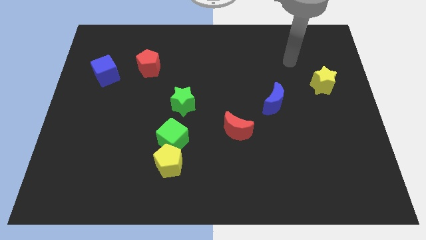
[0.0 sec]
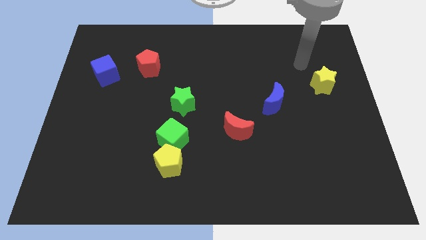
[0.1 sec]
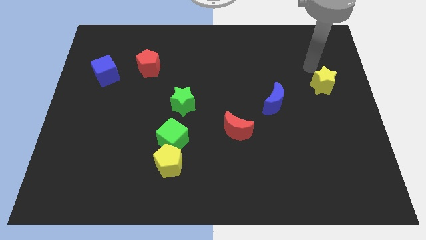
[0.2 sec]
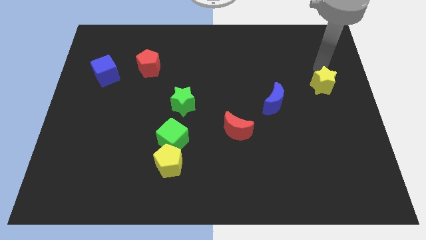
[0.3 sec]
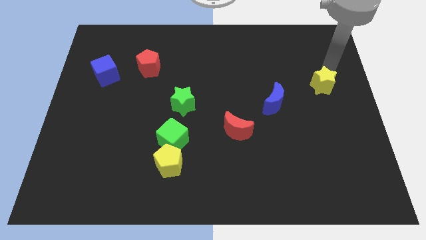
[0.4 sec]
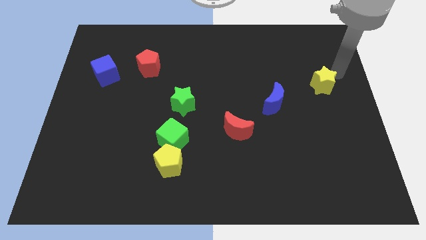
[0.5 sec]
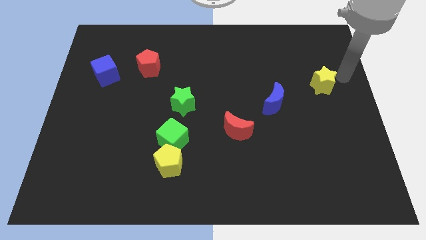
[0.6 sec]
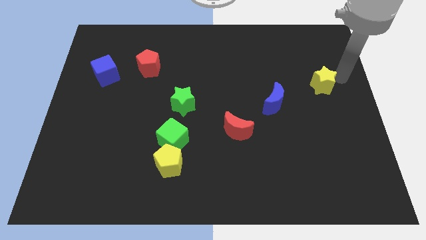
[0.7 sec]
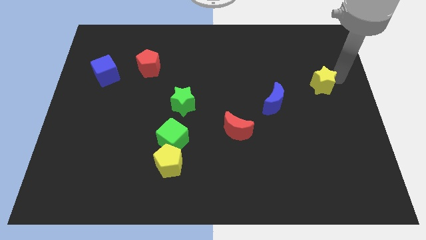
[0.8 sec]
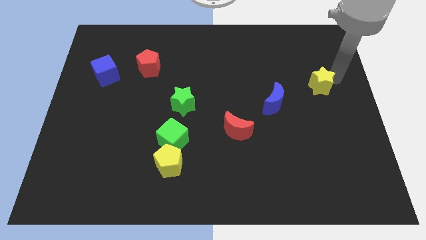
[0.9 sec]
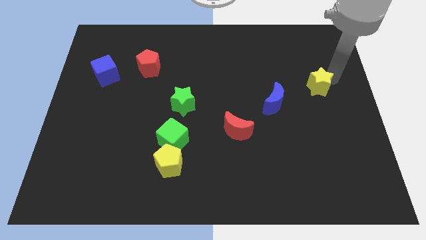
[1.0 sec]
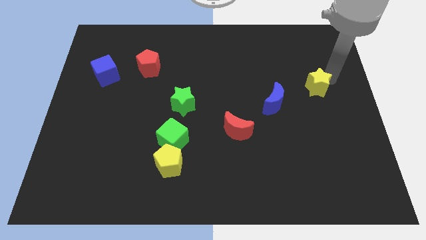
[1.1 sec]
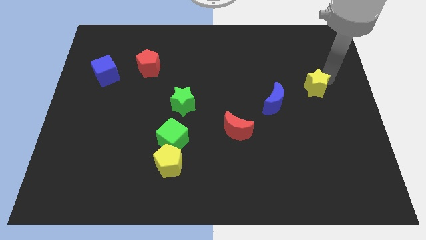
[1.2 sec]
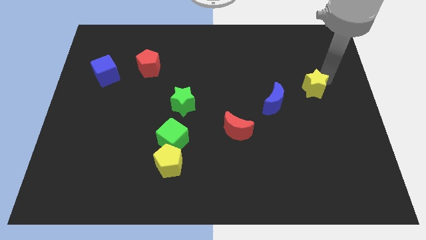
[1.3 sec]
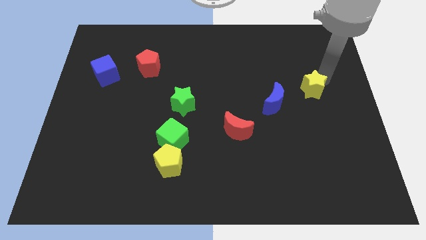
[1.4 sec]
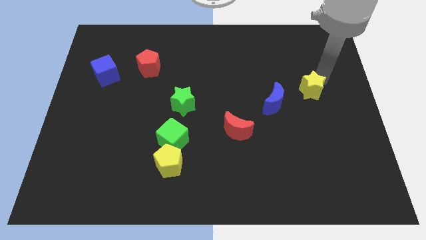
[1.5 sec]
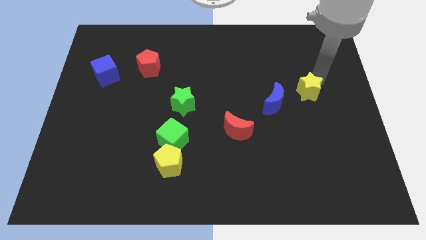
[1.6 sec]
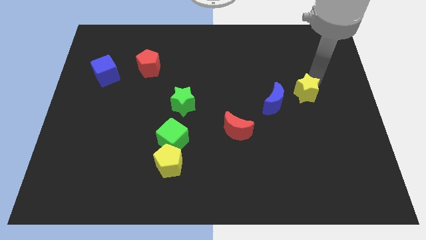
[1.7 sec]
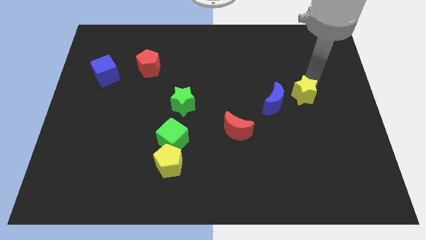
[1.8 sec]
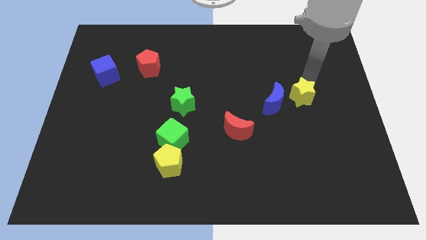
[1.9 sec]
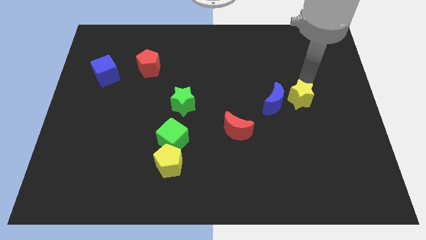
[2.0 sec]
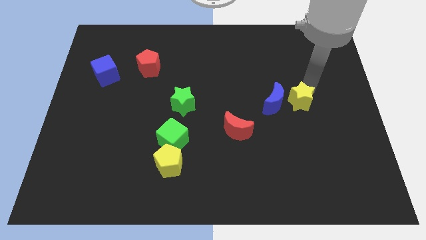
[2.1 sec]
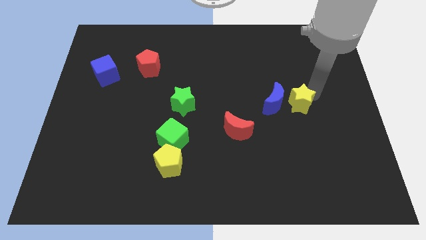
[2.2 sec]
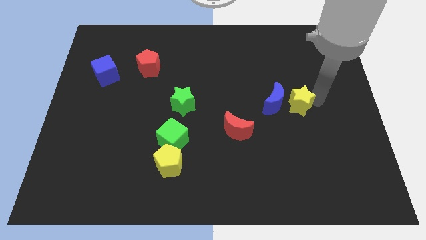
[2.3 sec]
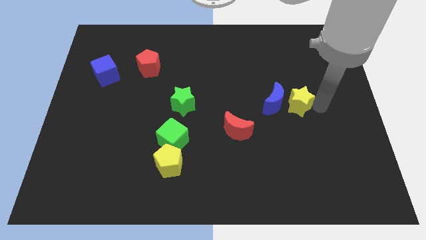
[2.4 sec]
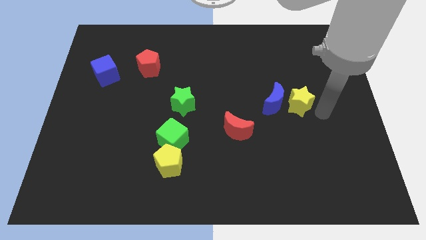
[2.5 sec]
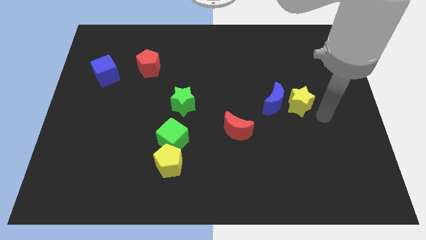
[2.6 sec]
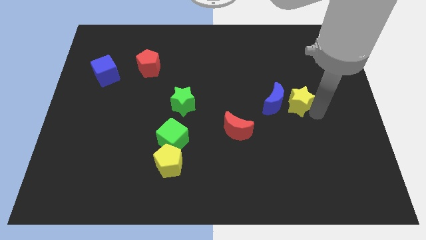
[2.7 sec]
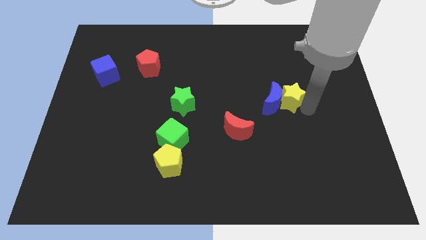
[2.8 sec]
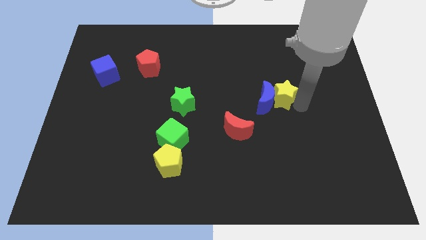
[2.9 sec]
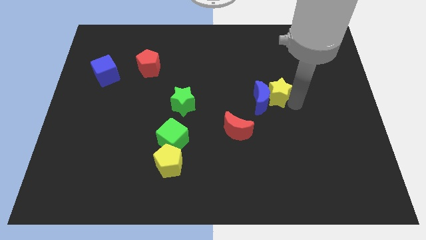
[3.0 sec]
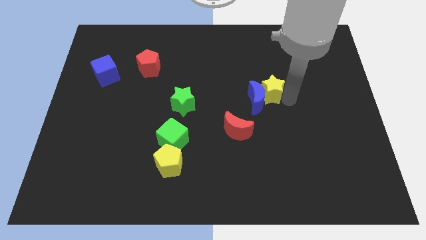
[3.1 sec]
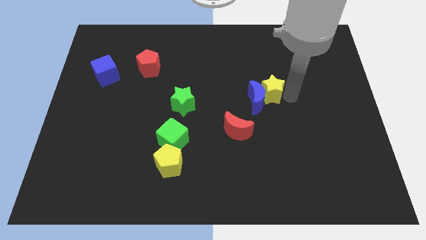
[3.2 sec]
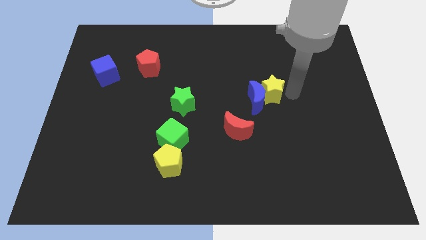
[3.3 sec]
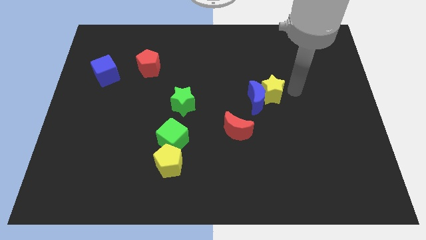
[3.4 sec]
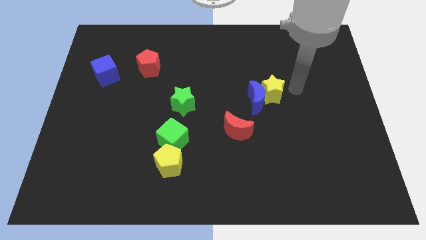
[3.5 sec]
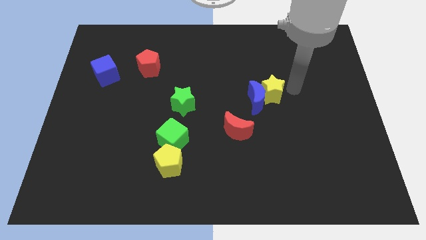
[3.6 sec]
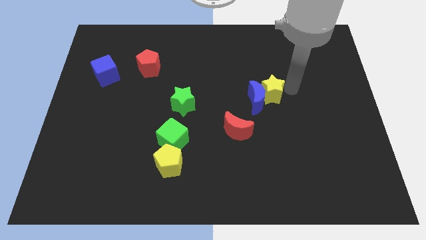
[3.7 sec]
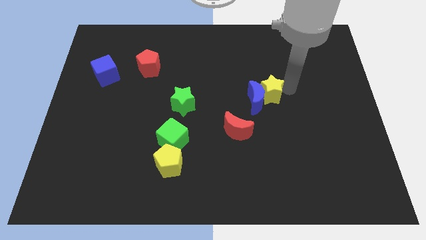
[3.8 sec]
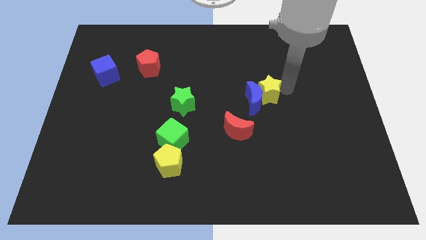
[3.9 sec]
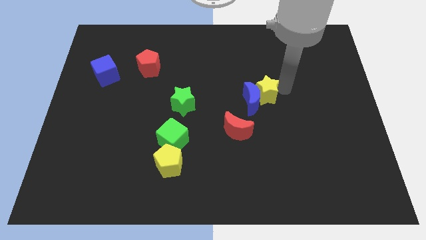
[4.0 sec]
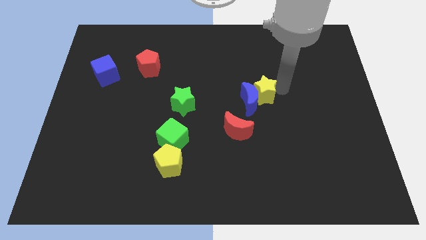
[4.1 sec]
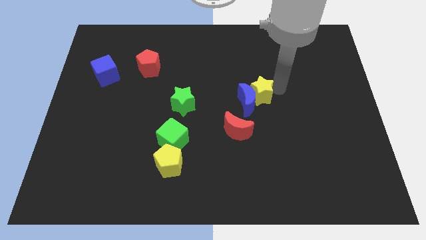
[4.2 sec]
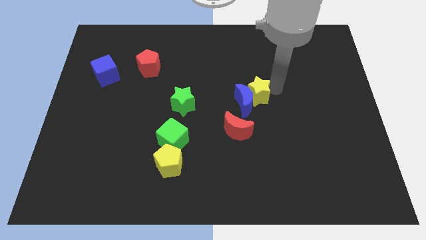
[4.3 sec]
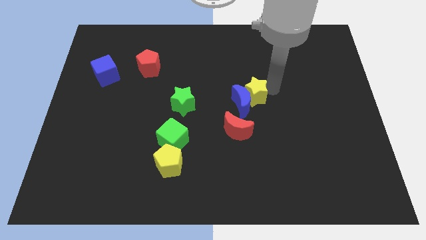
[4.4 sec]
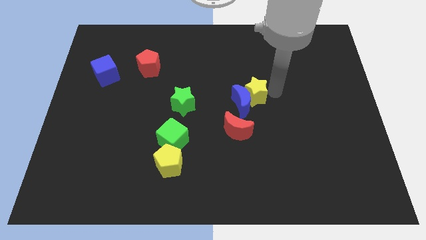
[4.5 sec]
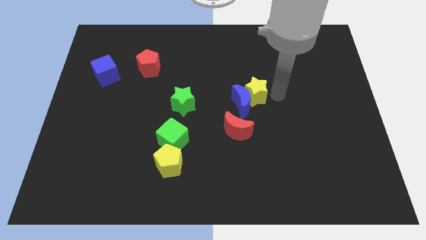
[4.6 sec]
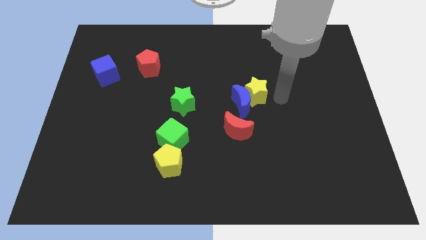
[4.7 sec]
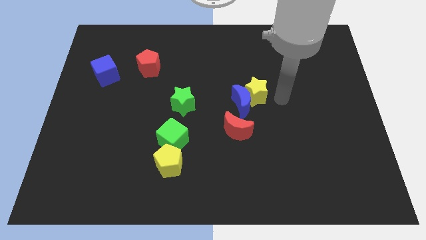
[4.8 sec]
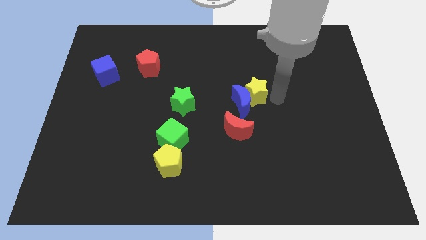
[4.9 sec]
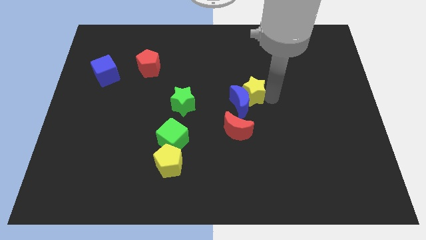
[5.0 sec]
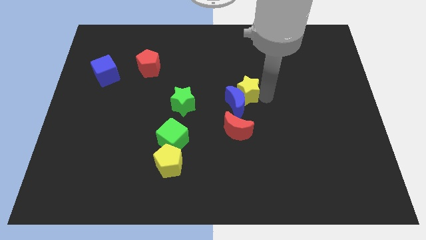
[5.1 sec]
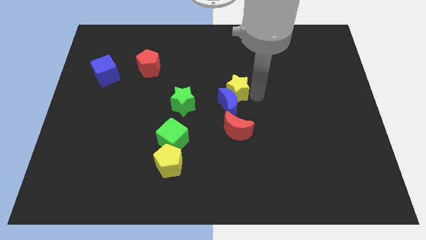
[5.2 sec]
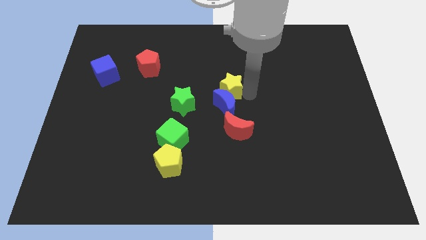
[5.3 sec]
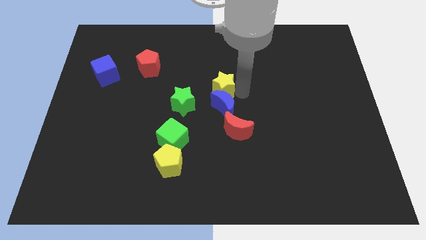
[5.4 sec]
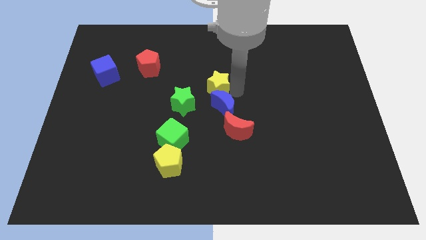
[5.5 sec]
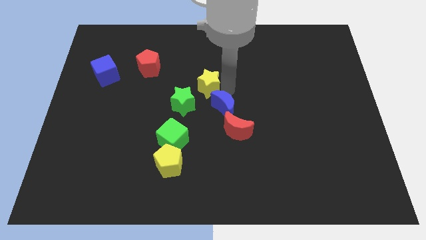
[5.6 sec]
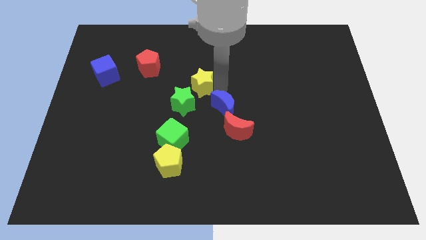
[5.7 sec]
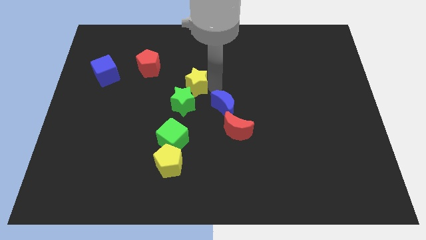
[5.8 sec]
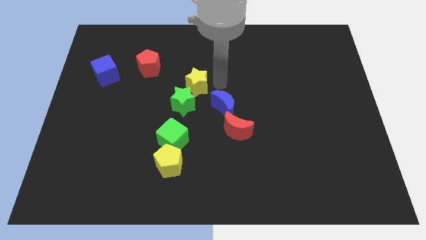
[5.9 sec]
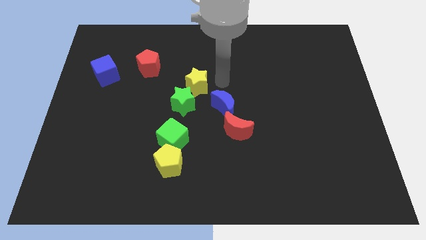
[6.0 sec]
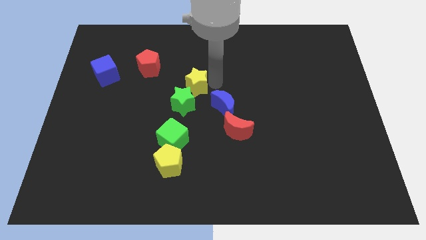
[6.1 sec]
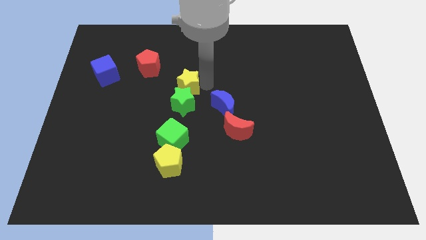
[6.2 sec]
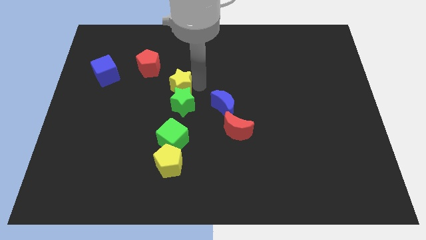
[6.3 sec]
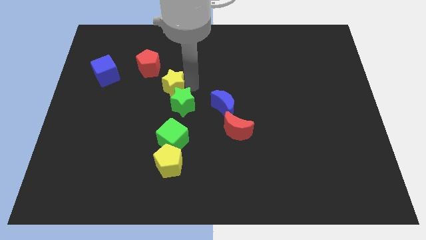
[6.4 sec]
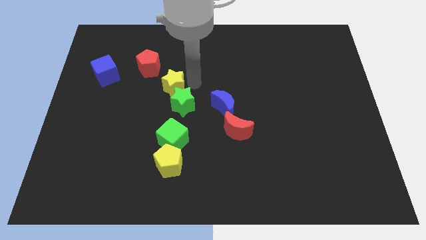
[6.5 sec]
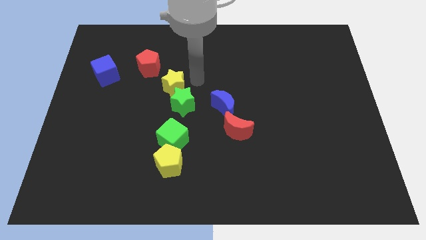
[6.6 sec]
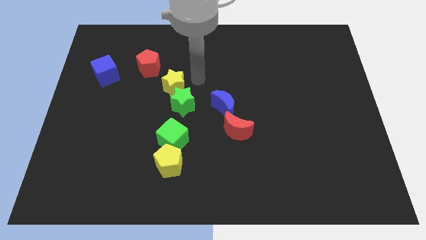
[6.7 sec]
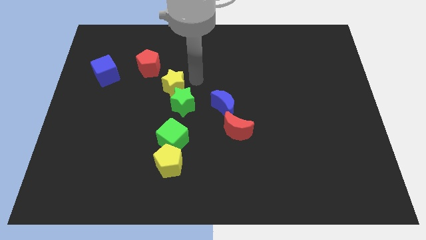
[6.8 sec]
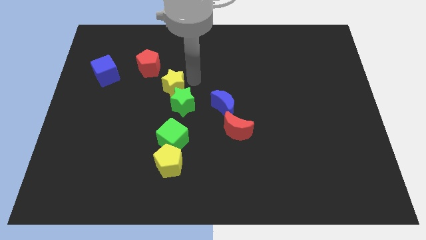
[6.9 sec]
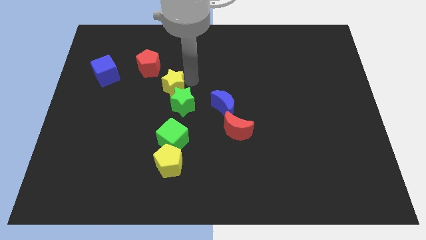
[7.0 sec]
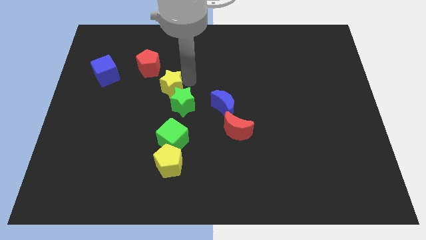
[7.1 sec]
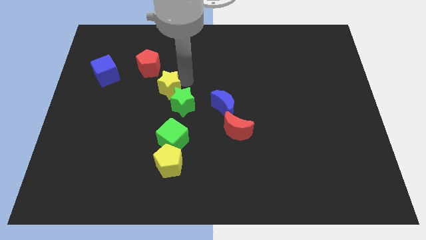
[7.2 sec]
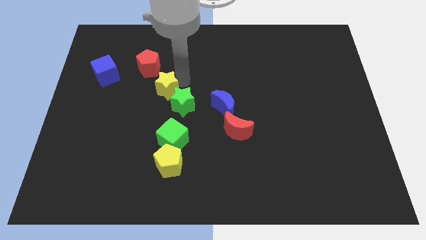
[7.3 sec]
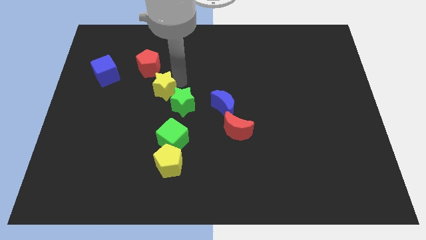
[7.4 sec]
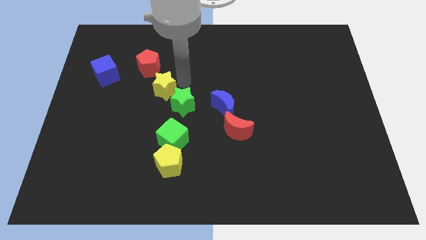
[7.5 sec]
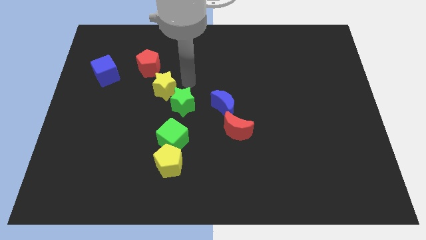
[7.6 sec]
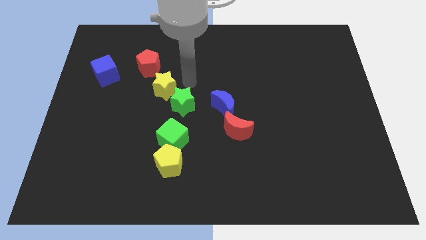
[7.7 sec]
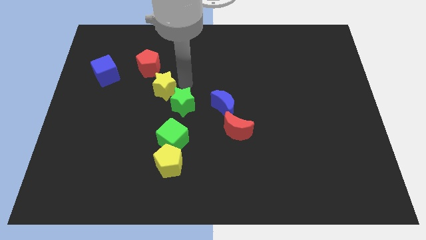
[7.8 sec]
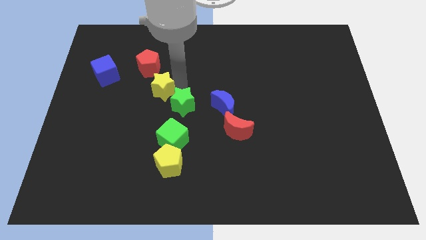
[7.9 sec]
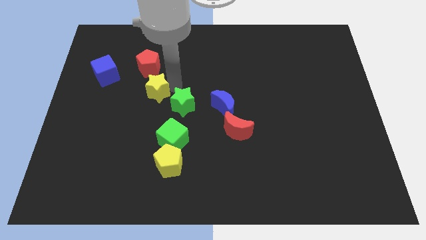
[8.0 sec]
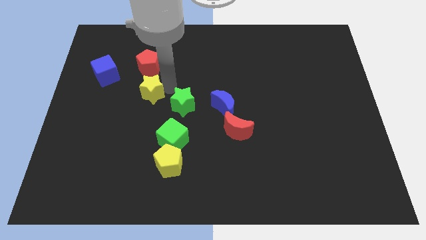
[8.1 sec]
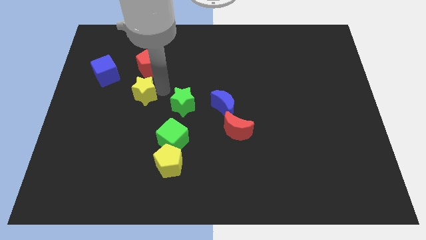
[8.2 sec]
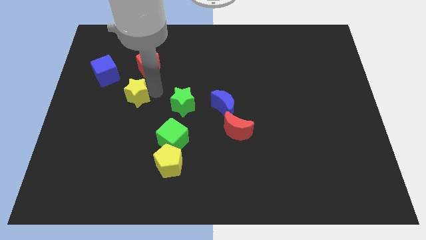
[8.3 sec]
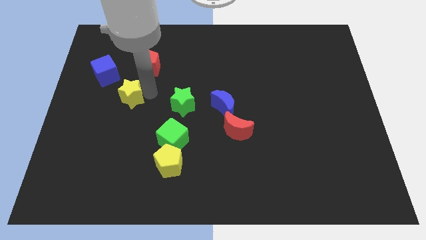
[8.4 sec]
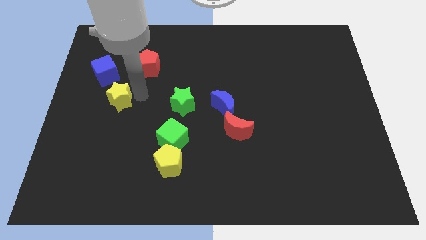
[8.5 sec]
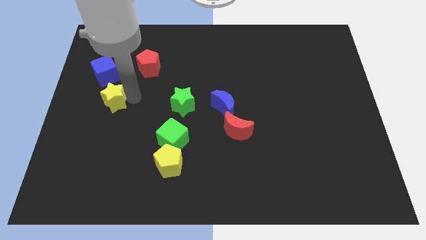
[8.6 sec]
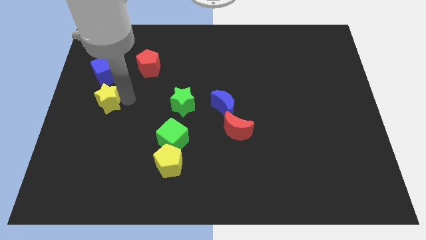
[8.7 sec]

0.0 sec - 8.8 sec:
put the yellow star to the left side of the board
